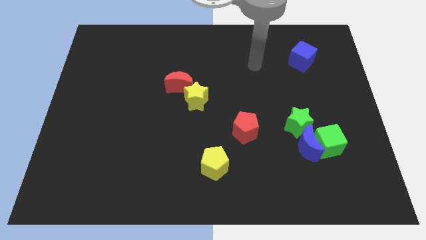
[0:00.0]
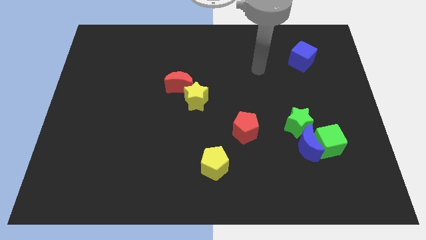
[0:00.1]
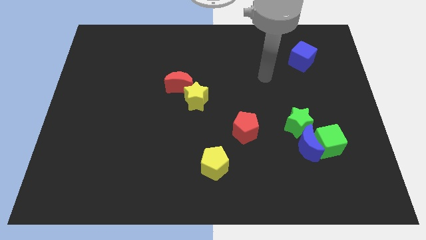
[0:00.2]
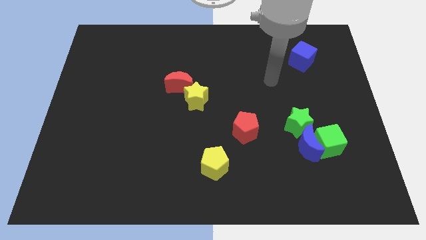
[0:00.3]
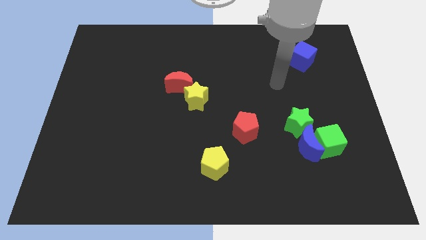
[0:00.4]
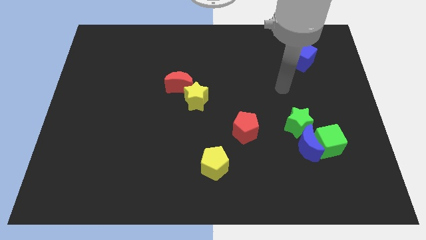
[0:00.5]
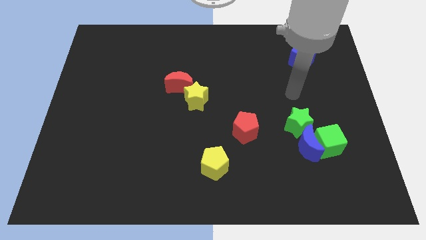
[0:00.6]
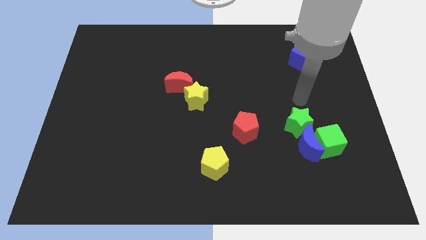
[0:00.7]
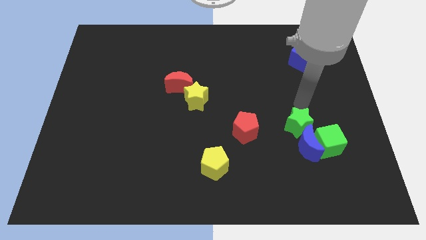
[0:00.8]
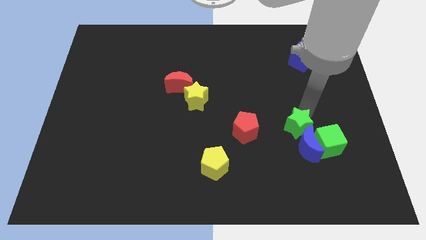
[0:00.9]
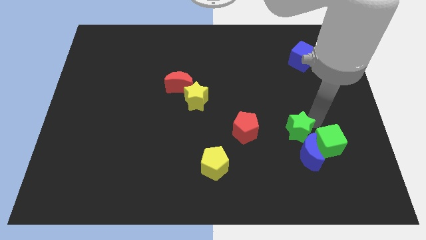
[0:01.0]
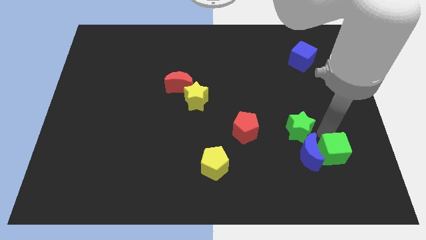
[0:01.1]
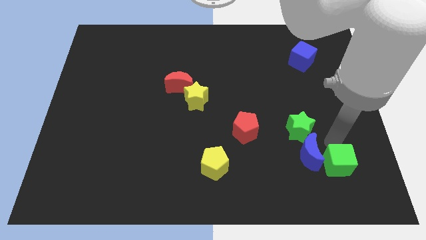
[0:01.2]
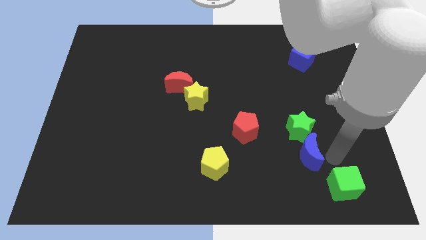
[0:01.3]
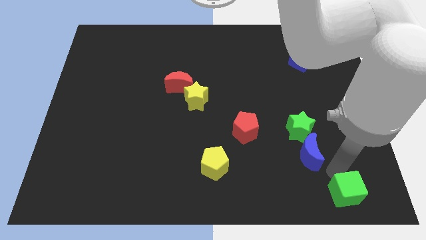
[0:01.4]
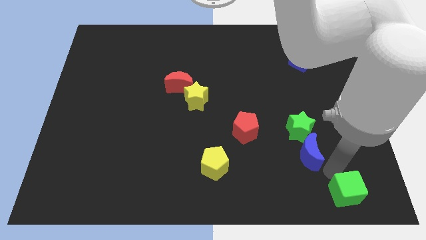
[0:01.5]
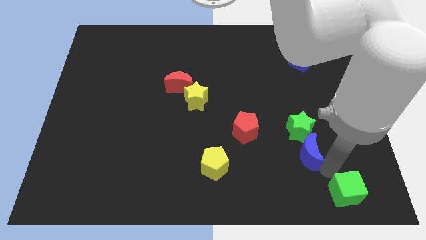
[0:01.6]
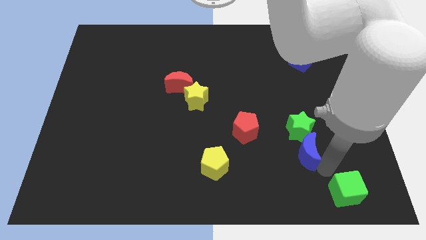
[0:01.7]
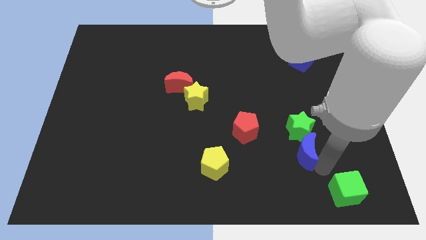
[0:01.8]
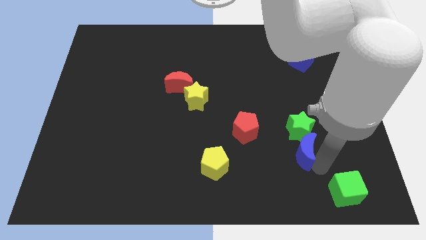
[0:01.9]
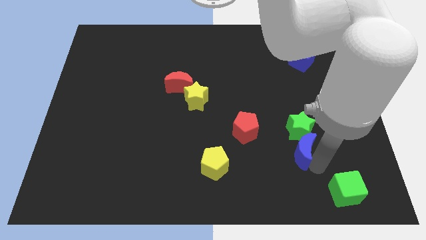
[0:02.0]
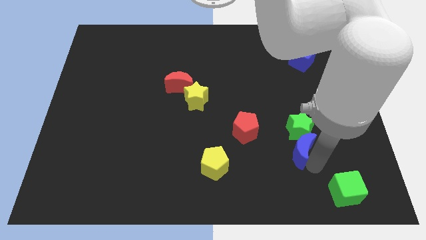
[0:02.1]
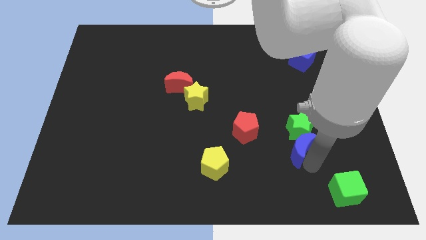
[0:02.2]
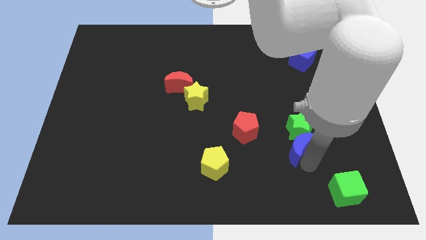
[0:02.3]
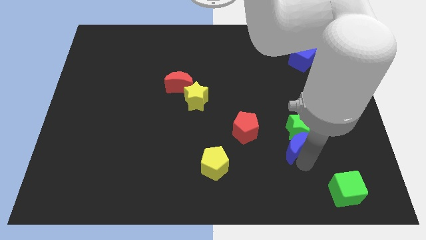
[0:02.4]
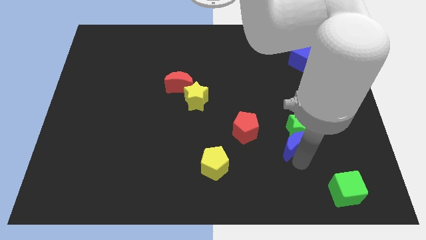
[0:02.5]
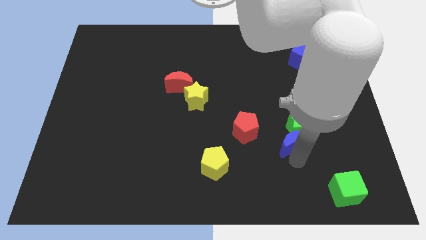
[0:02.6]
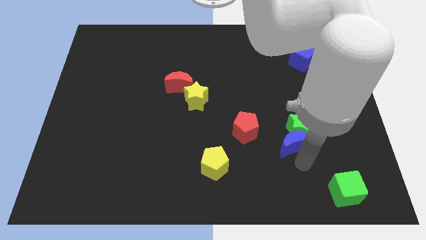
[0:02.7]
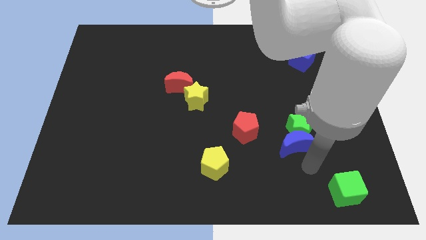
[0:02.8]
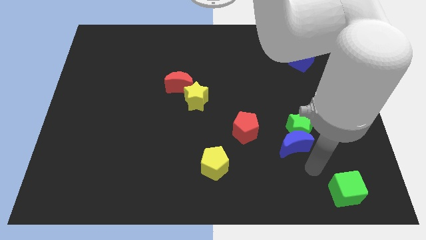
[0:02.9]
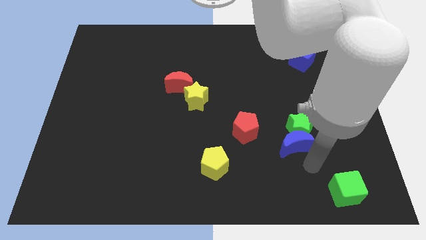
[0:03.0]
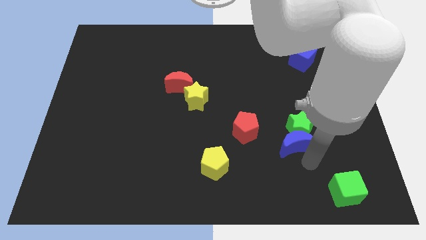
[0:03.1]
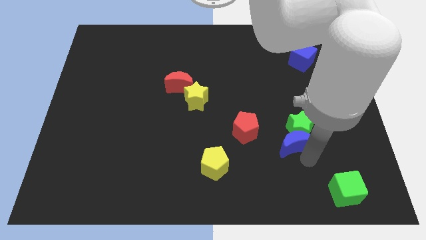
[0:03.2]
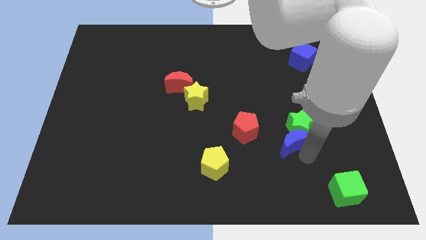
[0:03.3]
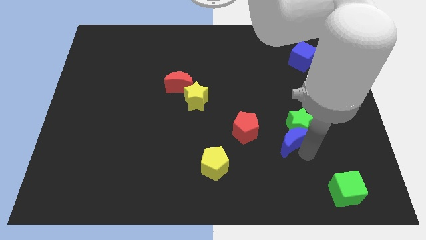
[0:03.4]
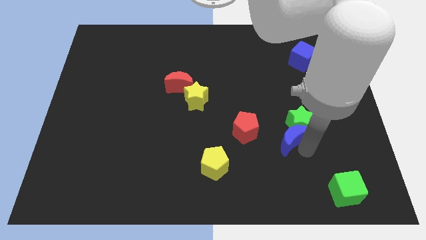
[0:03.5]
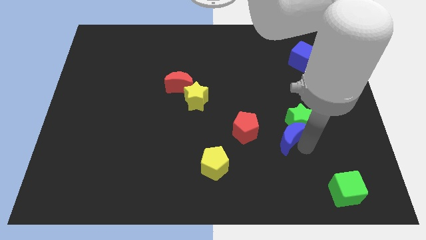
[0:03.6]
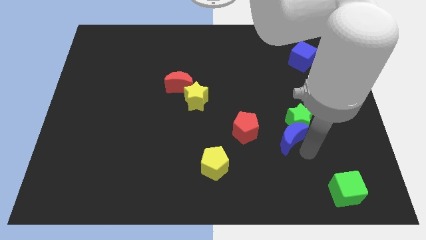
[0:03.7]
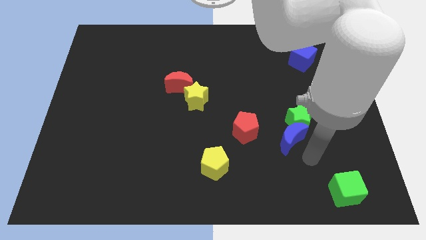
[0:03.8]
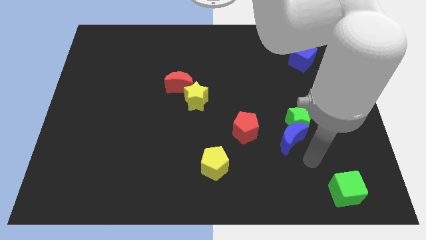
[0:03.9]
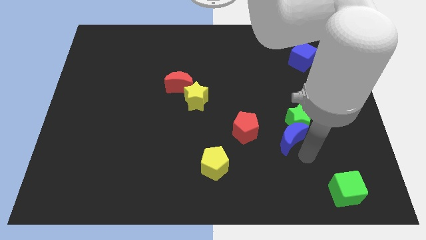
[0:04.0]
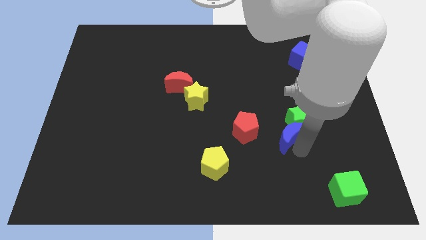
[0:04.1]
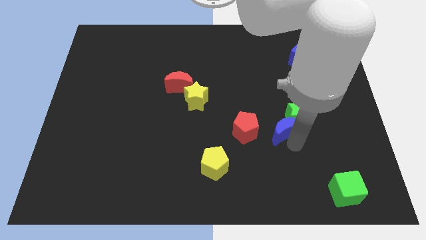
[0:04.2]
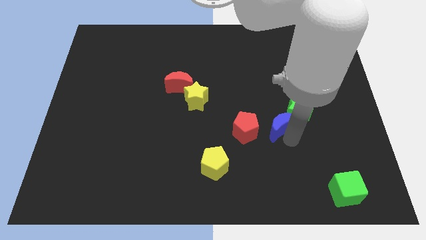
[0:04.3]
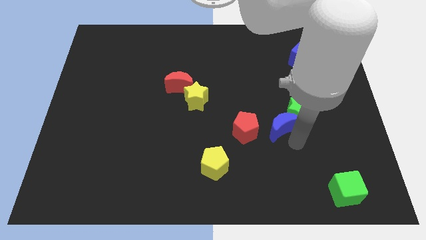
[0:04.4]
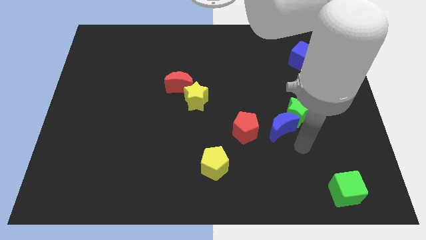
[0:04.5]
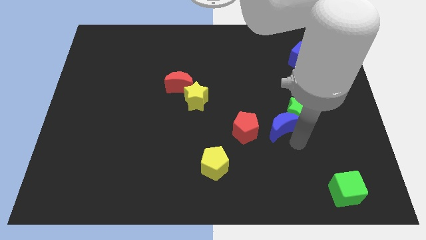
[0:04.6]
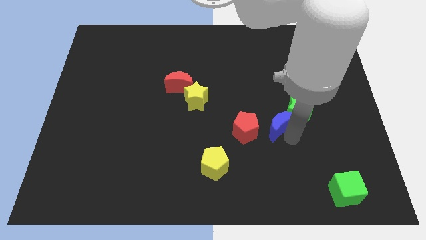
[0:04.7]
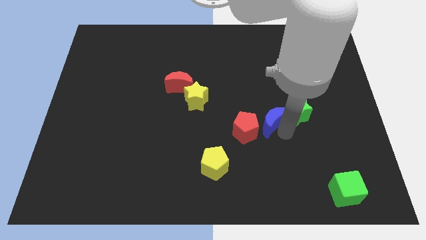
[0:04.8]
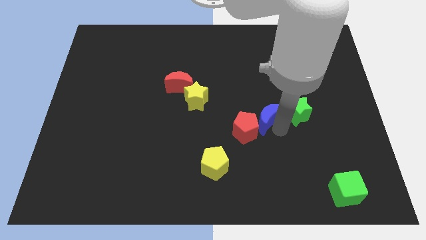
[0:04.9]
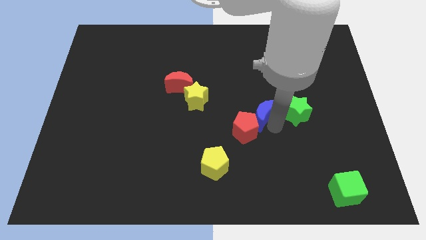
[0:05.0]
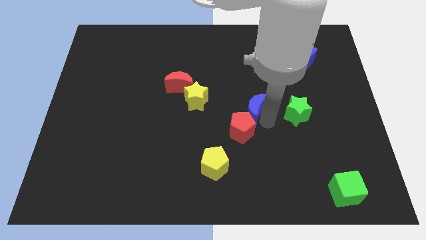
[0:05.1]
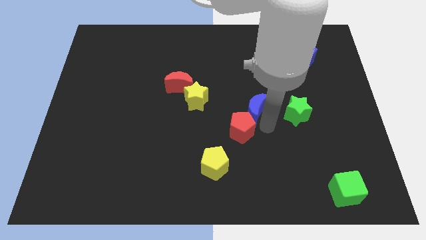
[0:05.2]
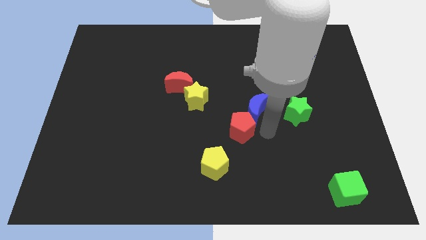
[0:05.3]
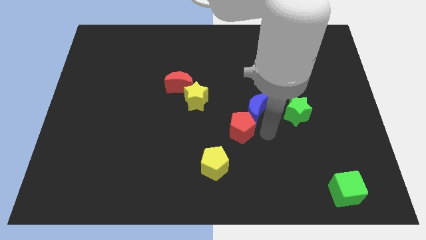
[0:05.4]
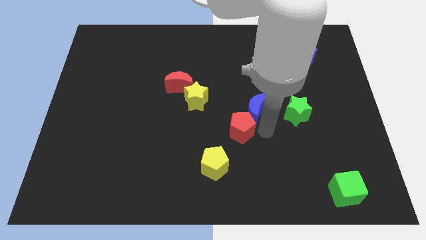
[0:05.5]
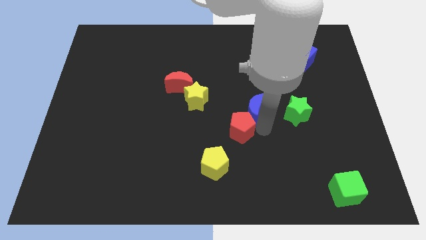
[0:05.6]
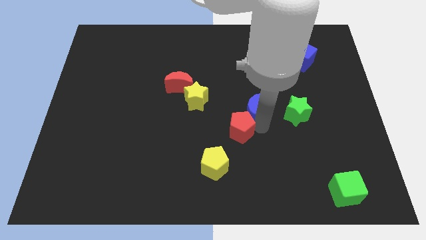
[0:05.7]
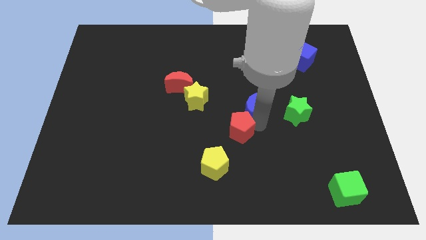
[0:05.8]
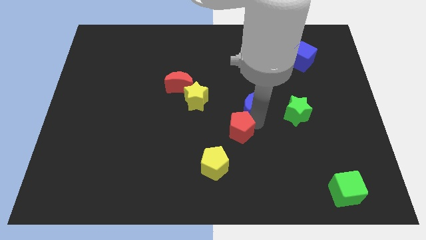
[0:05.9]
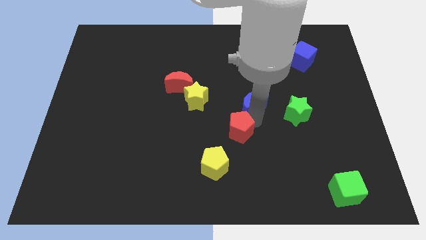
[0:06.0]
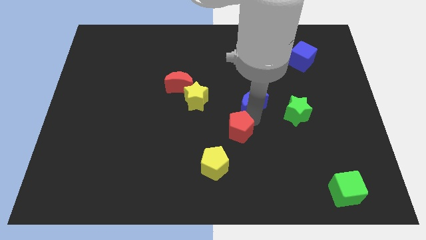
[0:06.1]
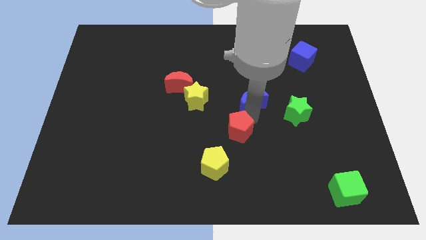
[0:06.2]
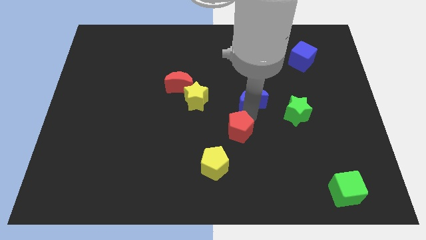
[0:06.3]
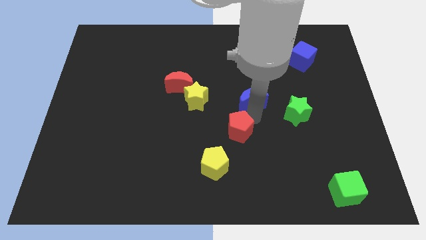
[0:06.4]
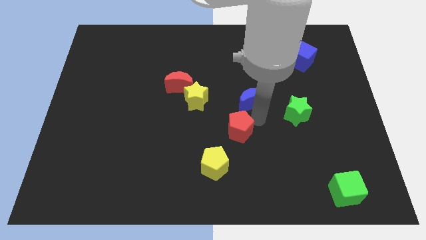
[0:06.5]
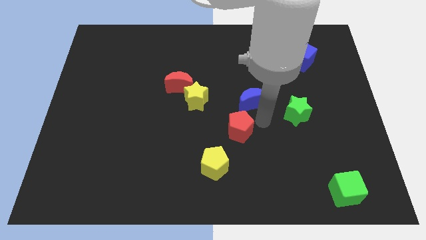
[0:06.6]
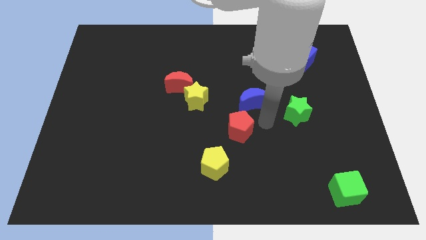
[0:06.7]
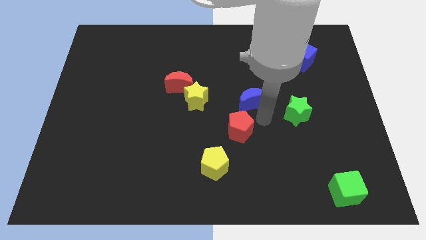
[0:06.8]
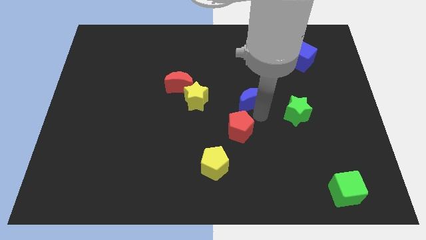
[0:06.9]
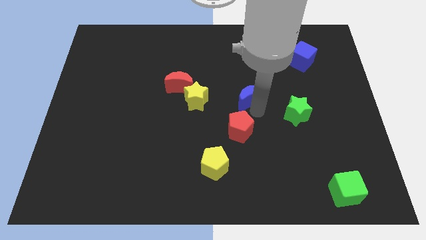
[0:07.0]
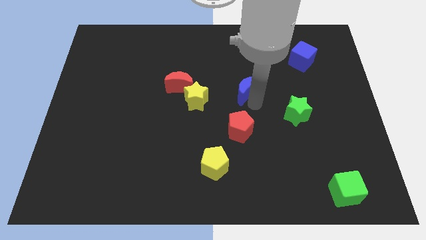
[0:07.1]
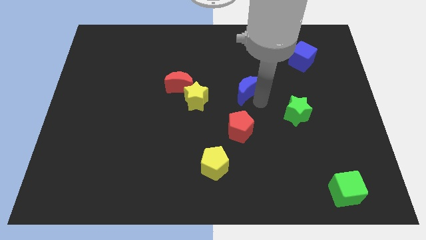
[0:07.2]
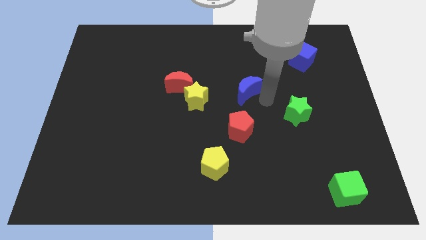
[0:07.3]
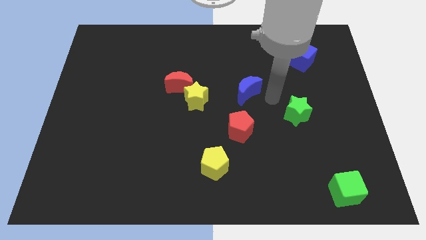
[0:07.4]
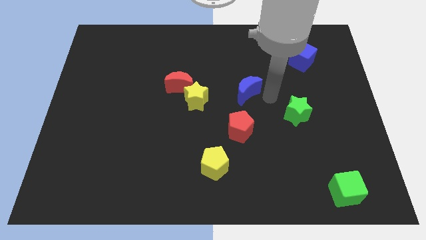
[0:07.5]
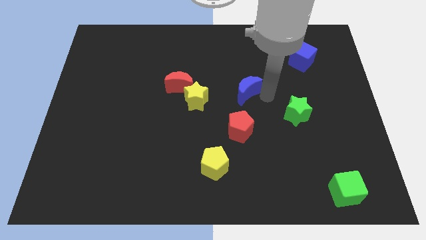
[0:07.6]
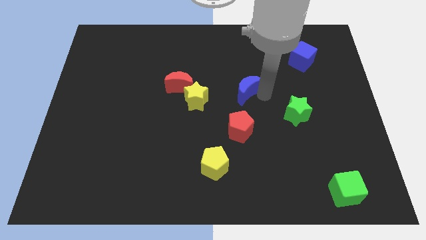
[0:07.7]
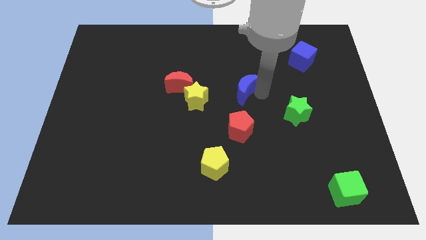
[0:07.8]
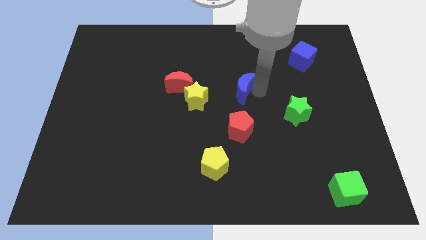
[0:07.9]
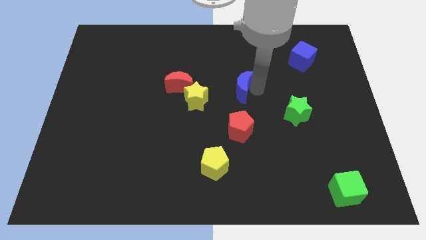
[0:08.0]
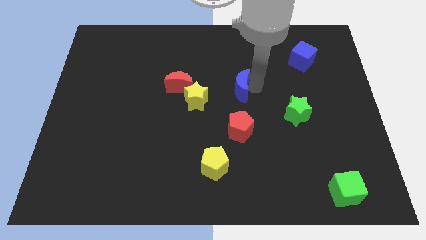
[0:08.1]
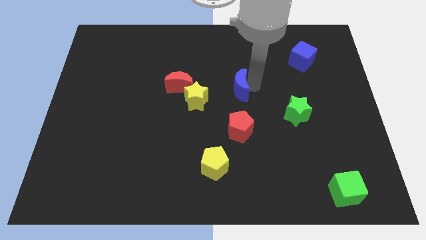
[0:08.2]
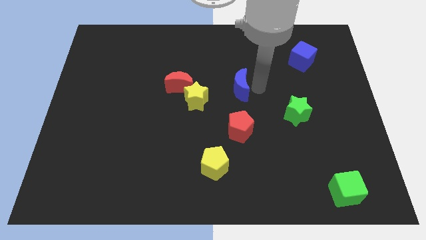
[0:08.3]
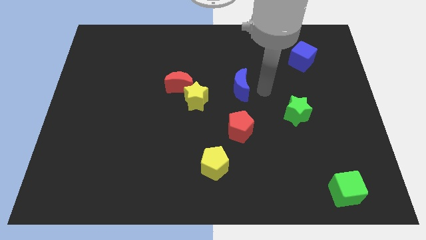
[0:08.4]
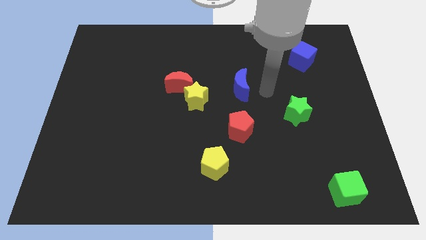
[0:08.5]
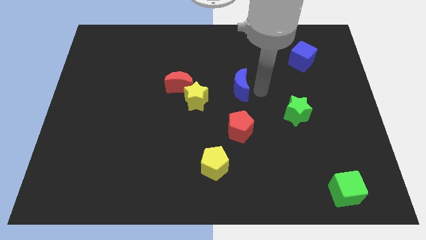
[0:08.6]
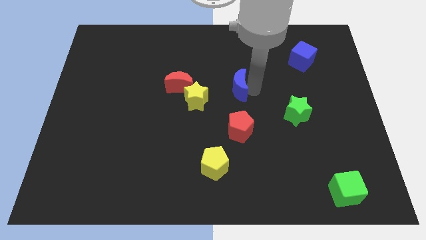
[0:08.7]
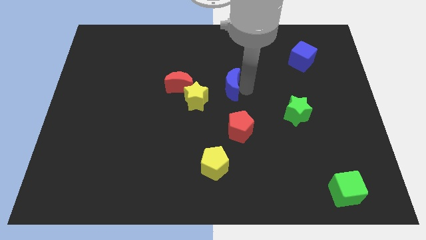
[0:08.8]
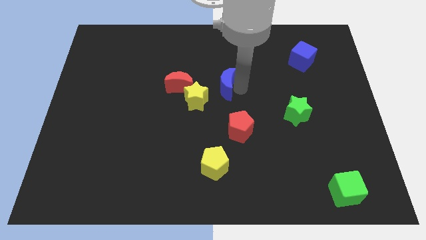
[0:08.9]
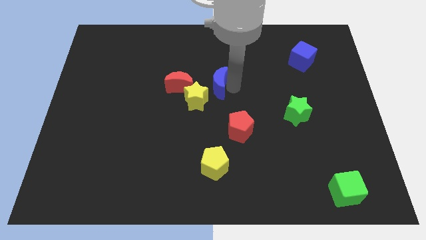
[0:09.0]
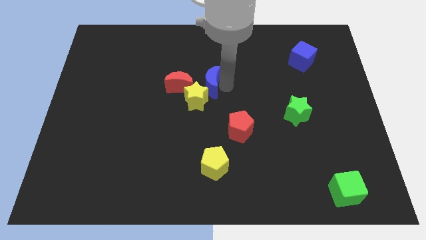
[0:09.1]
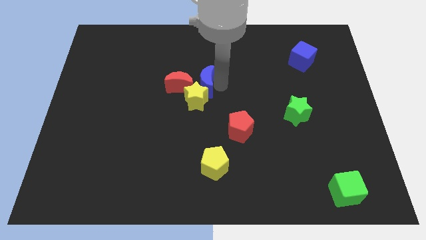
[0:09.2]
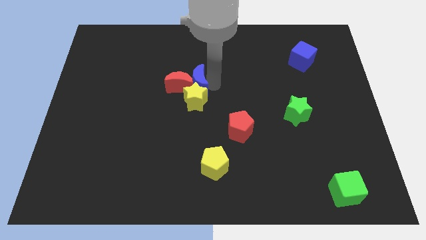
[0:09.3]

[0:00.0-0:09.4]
slide the blue moon next to the red moon
